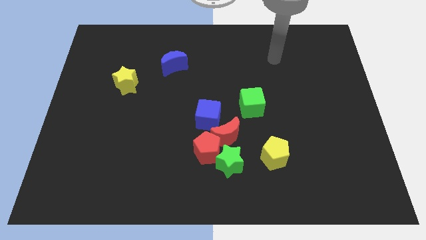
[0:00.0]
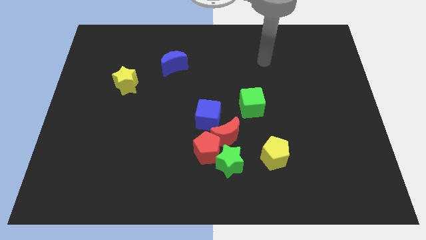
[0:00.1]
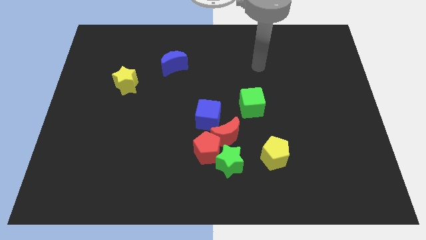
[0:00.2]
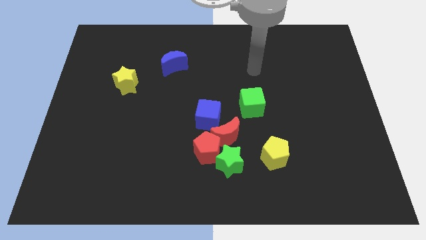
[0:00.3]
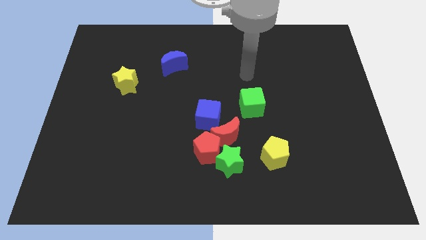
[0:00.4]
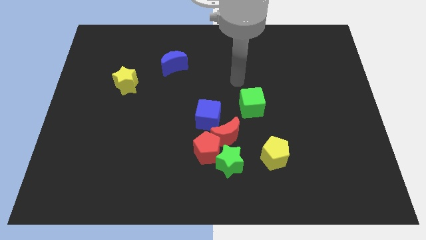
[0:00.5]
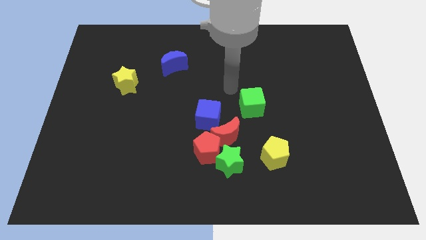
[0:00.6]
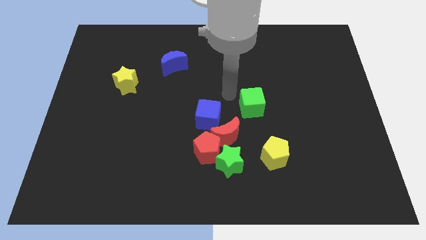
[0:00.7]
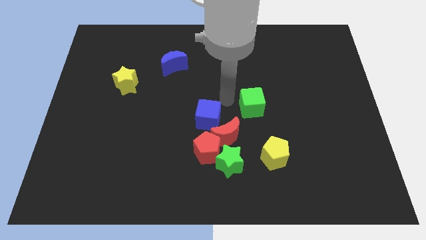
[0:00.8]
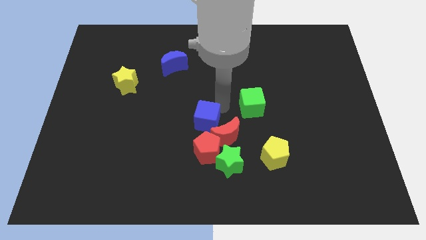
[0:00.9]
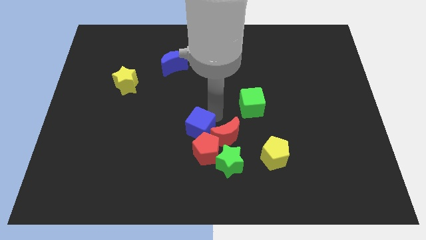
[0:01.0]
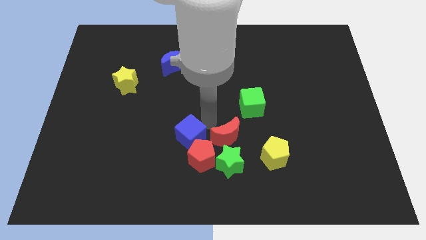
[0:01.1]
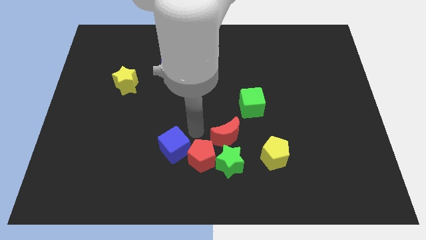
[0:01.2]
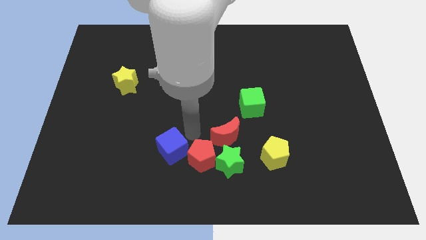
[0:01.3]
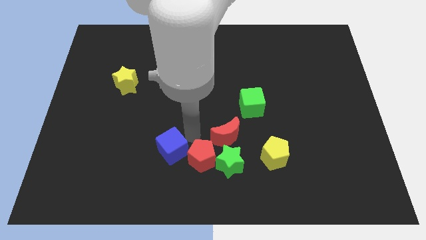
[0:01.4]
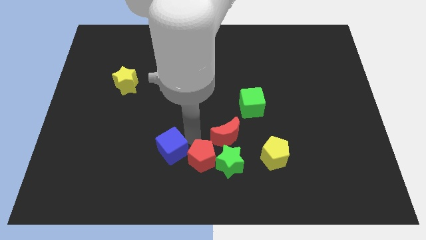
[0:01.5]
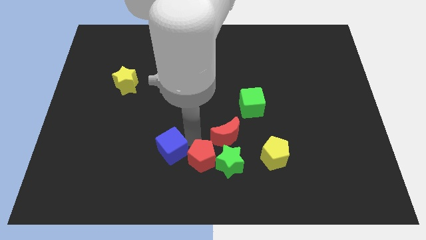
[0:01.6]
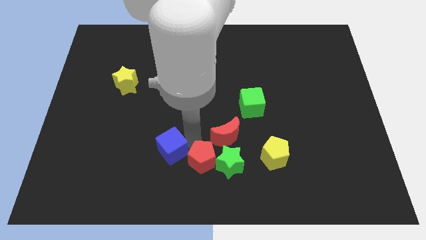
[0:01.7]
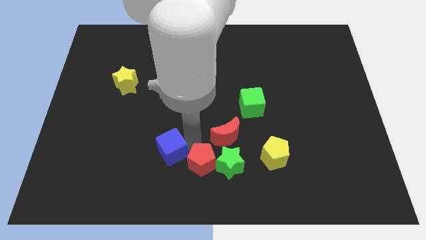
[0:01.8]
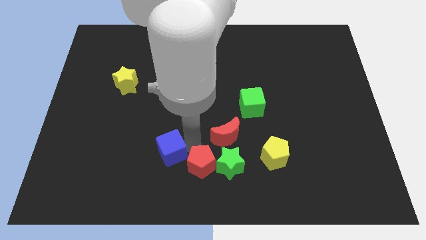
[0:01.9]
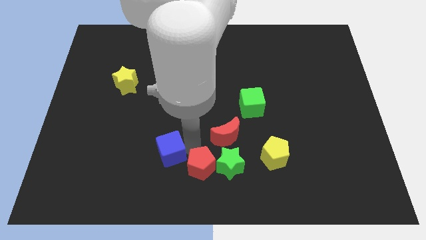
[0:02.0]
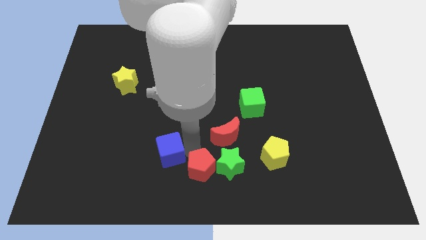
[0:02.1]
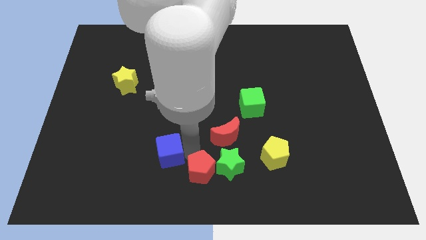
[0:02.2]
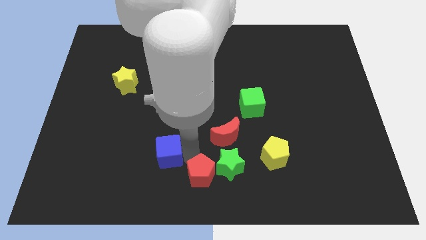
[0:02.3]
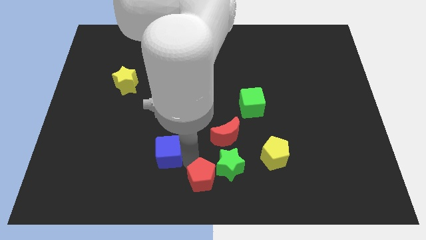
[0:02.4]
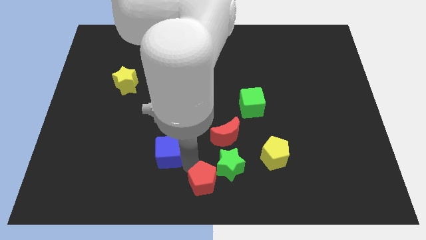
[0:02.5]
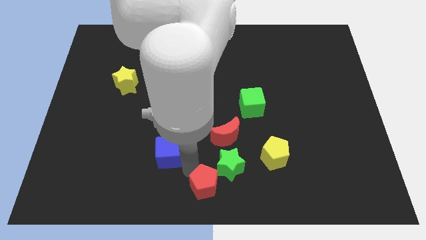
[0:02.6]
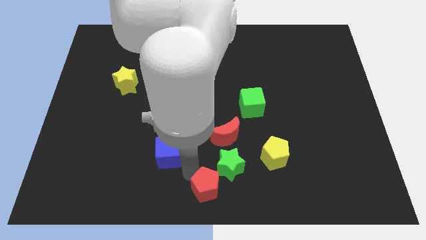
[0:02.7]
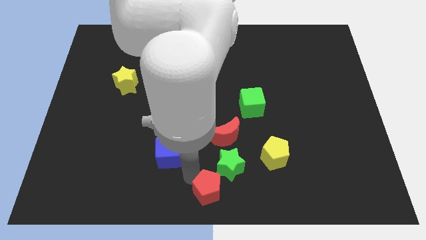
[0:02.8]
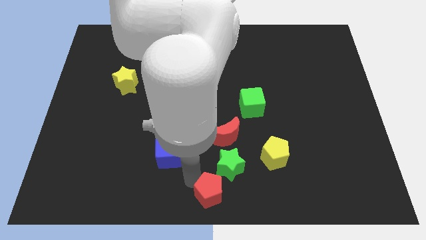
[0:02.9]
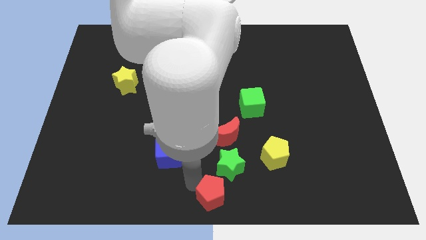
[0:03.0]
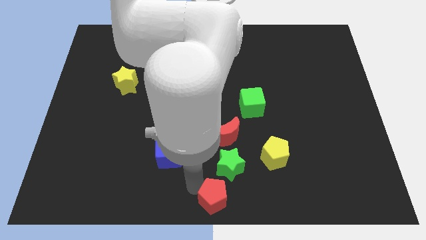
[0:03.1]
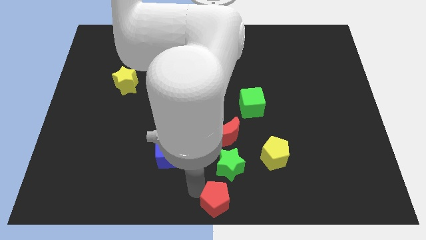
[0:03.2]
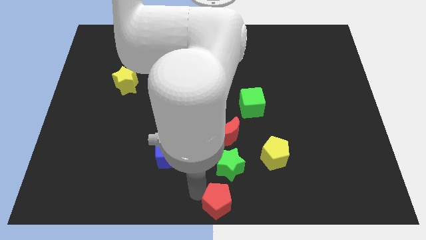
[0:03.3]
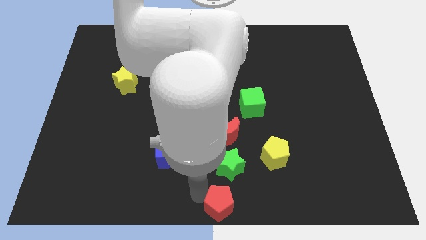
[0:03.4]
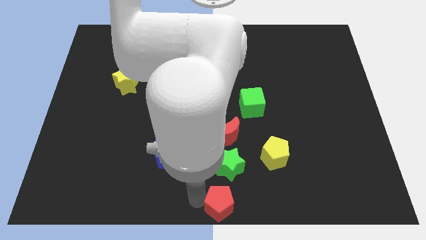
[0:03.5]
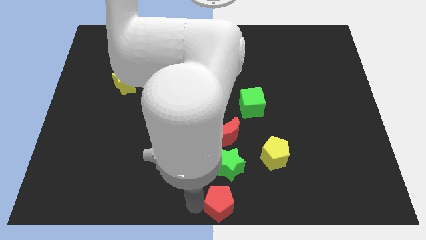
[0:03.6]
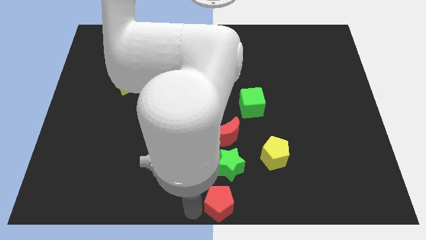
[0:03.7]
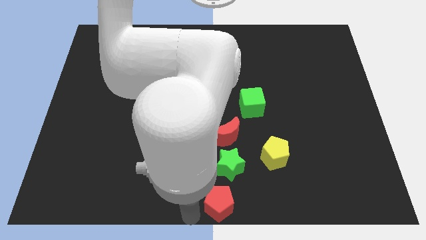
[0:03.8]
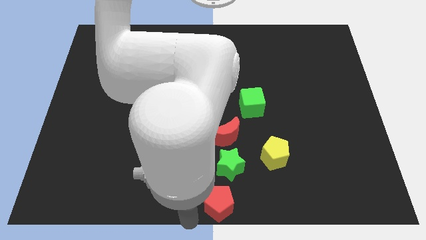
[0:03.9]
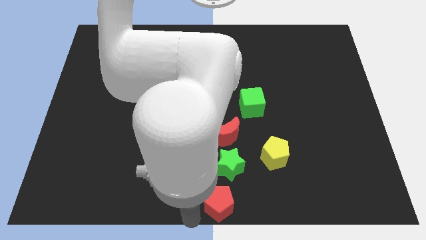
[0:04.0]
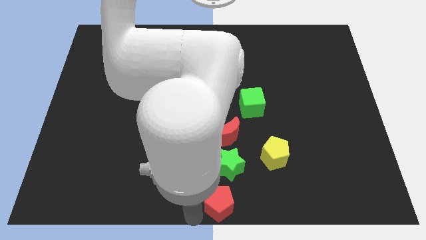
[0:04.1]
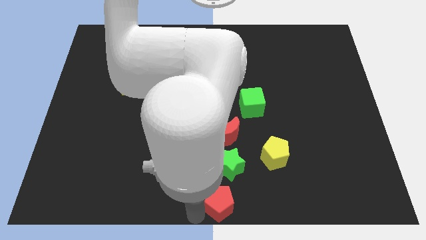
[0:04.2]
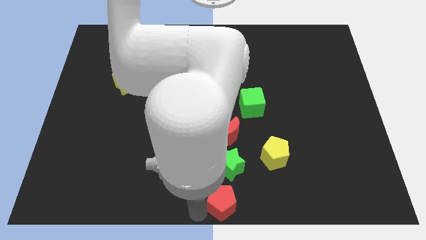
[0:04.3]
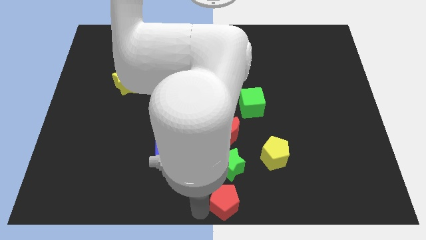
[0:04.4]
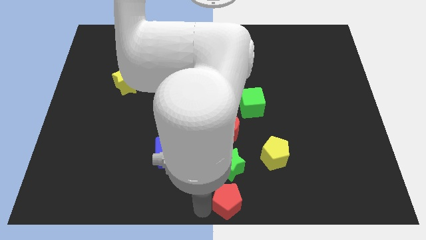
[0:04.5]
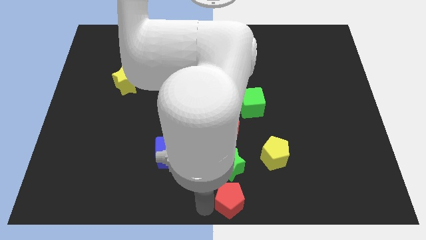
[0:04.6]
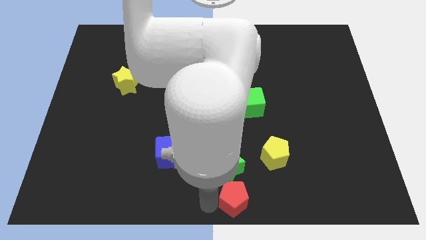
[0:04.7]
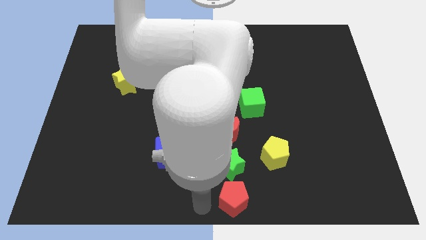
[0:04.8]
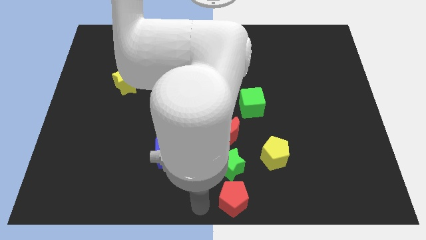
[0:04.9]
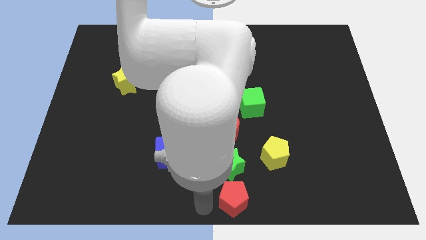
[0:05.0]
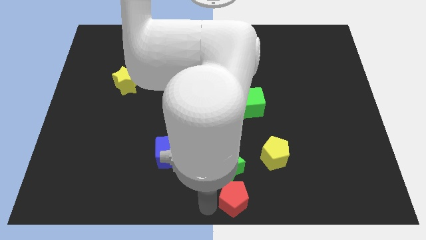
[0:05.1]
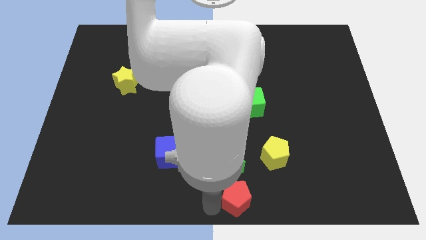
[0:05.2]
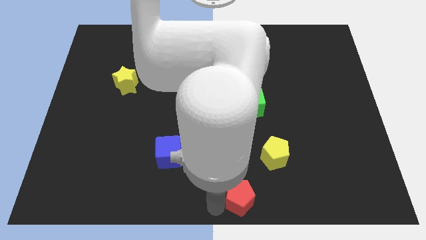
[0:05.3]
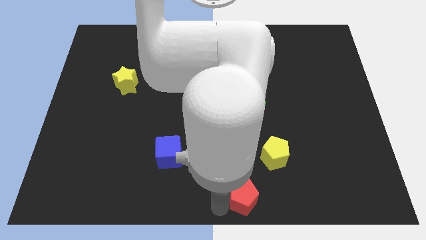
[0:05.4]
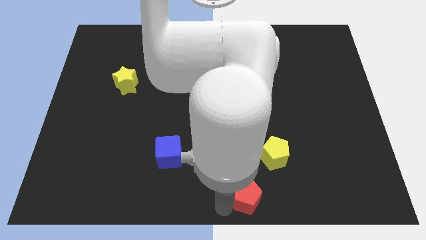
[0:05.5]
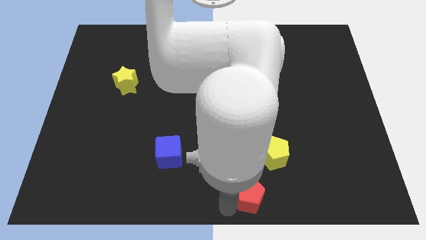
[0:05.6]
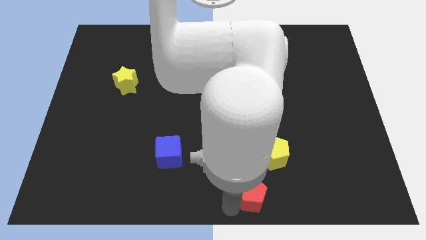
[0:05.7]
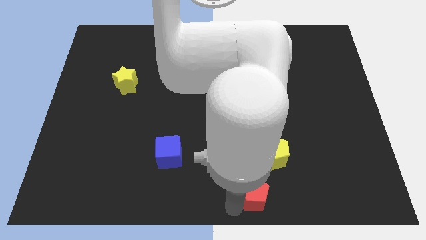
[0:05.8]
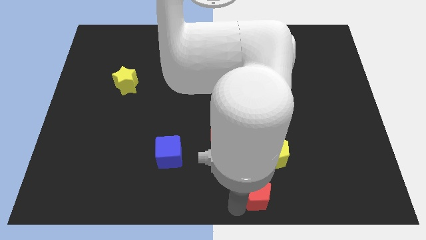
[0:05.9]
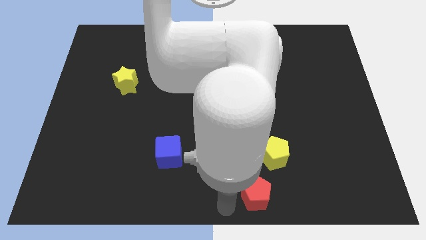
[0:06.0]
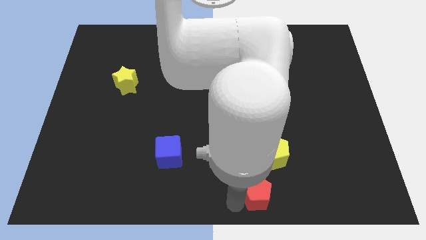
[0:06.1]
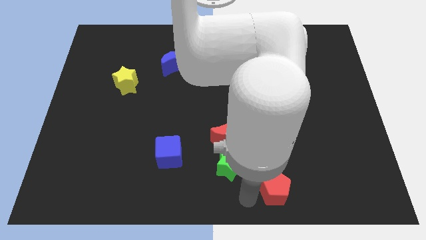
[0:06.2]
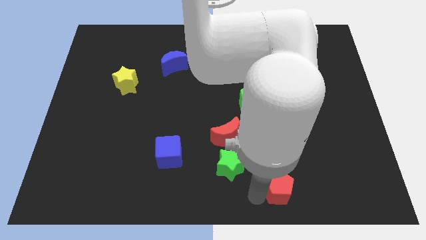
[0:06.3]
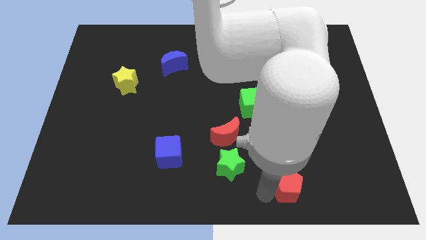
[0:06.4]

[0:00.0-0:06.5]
put the red pentagon to the bottom right side of the yellow pentagon

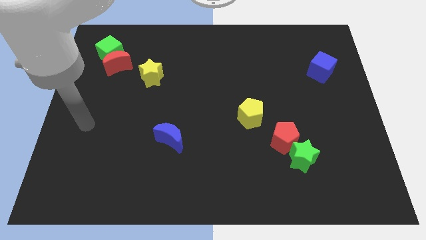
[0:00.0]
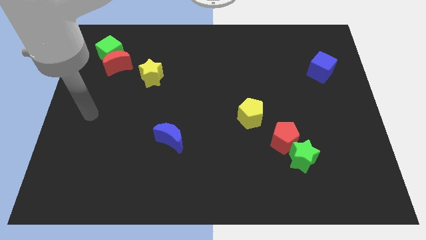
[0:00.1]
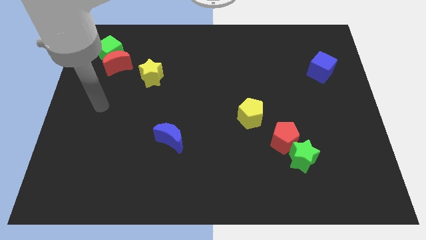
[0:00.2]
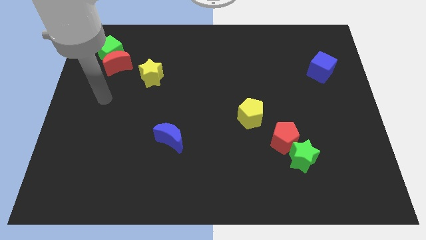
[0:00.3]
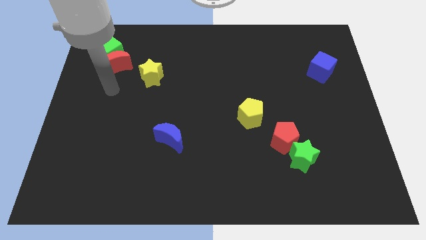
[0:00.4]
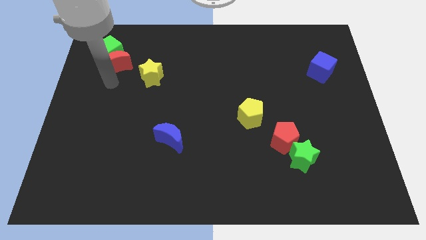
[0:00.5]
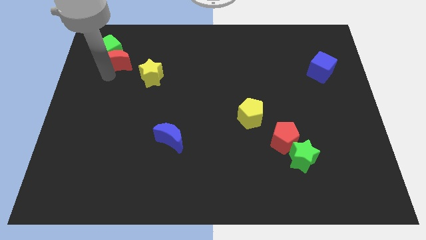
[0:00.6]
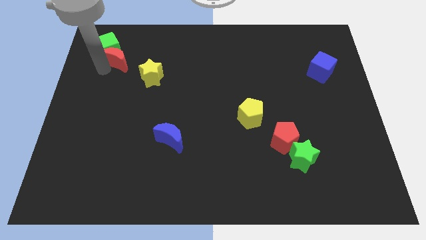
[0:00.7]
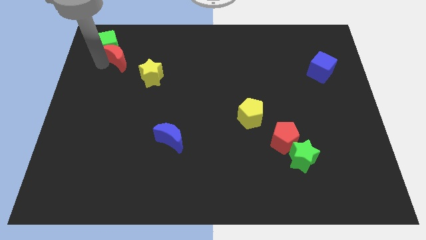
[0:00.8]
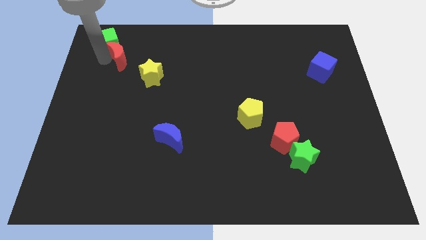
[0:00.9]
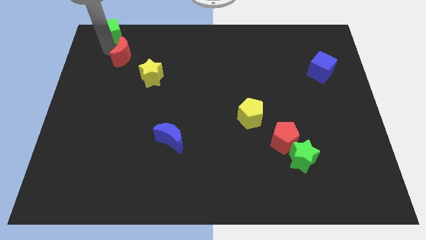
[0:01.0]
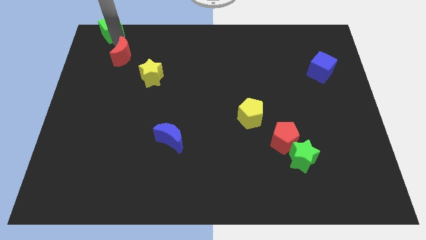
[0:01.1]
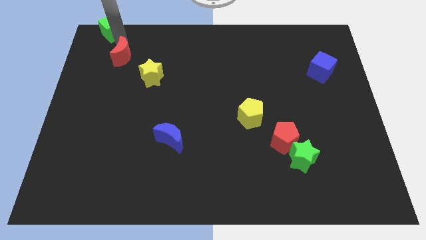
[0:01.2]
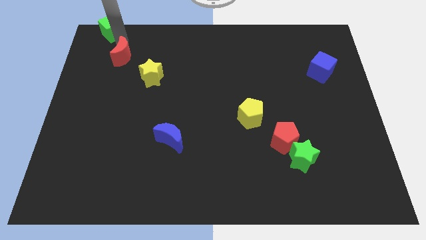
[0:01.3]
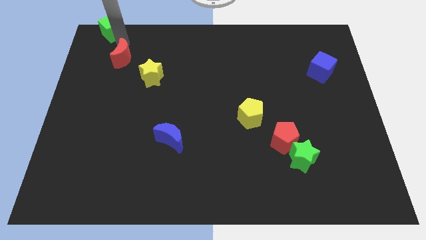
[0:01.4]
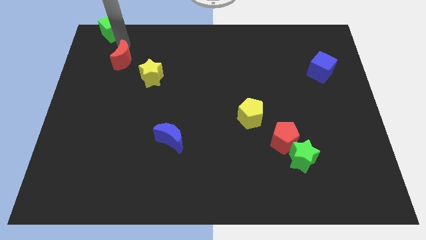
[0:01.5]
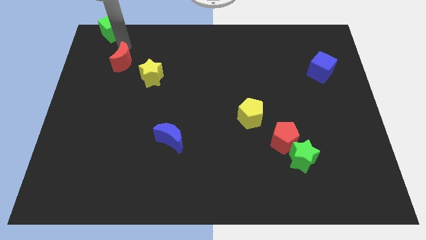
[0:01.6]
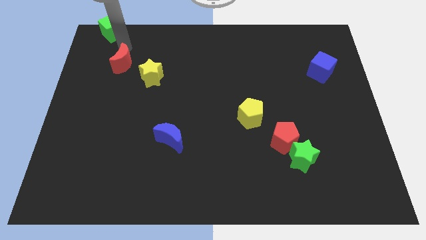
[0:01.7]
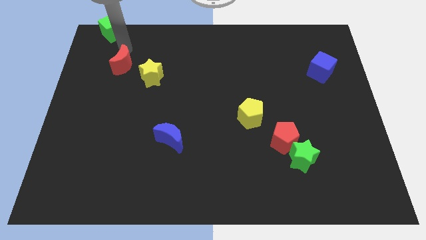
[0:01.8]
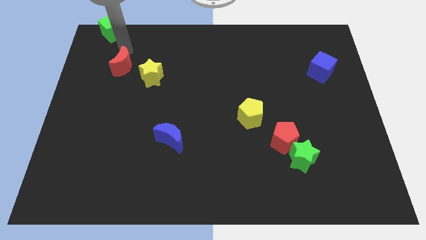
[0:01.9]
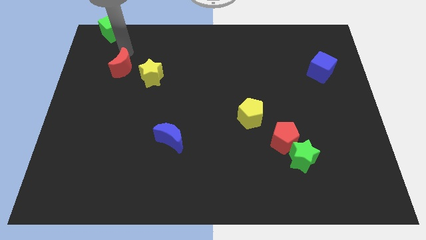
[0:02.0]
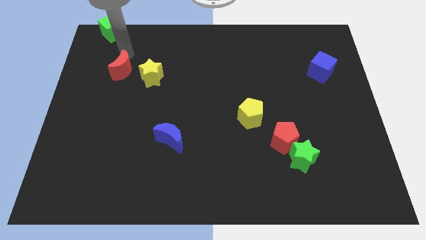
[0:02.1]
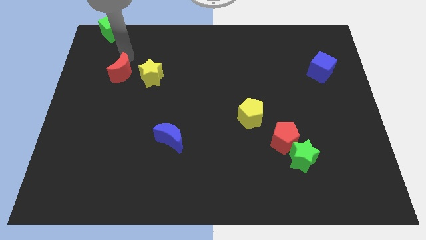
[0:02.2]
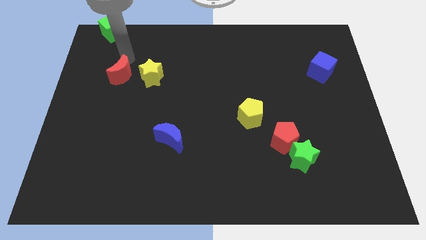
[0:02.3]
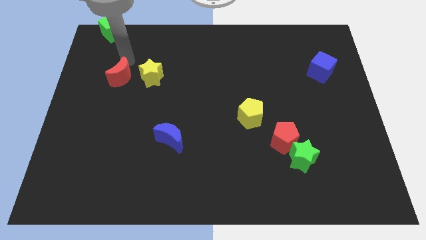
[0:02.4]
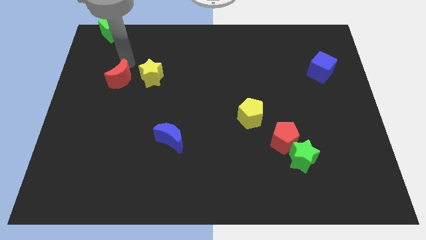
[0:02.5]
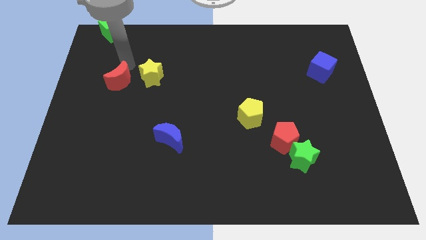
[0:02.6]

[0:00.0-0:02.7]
push the red moon diagonally down and to the left of the yellow star
